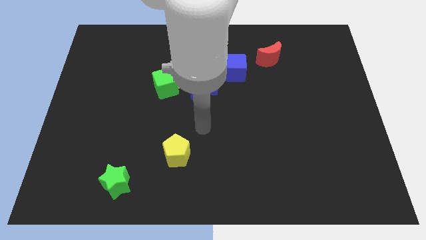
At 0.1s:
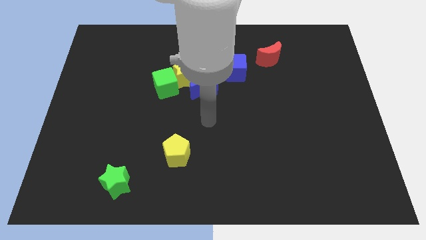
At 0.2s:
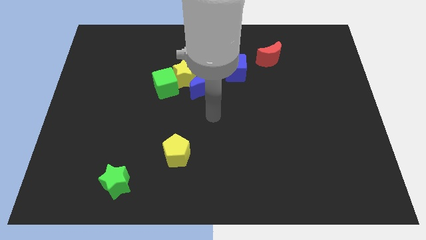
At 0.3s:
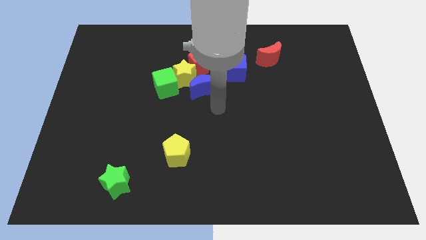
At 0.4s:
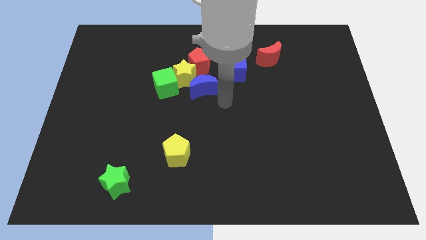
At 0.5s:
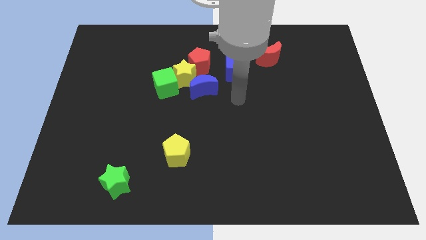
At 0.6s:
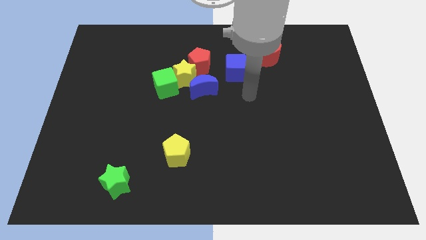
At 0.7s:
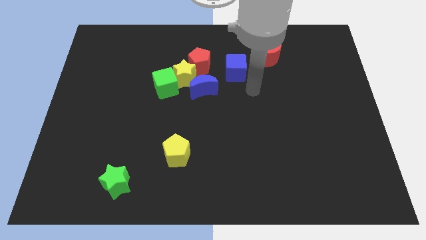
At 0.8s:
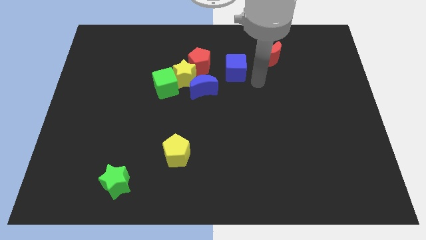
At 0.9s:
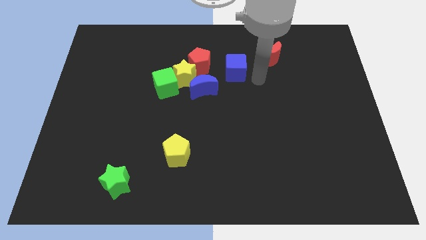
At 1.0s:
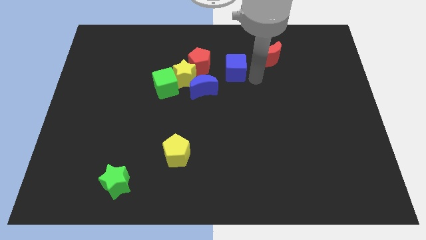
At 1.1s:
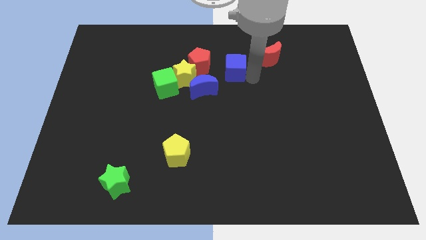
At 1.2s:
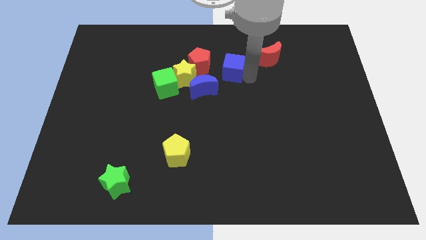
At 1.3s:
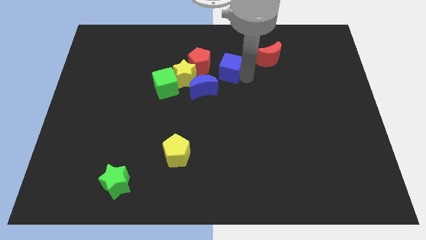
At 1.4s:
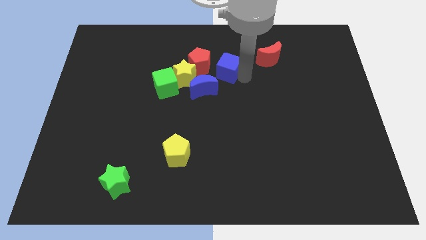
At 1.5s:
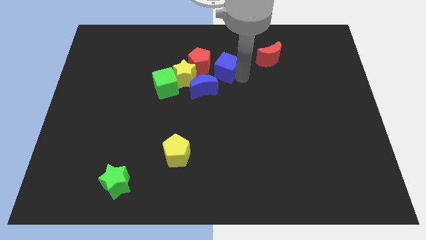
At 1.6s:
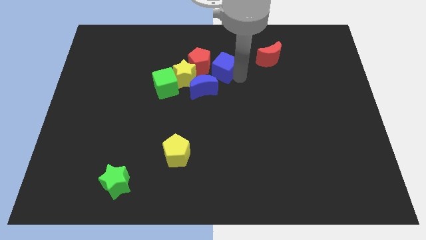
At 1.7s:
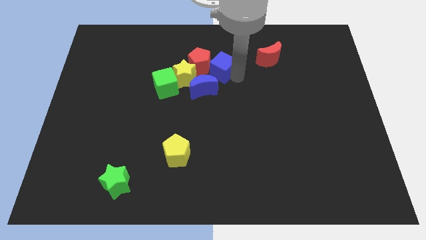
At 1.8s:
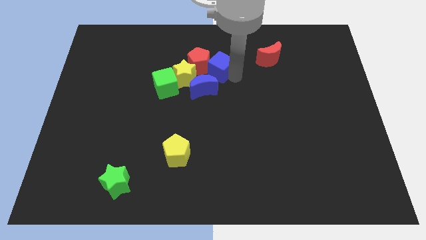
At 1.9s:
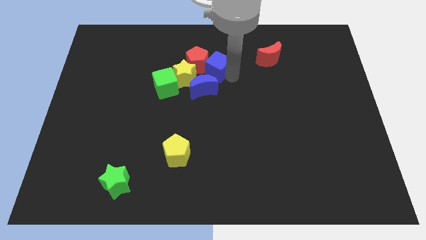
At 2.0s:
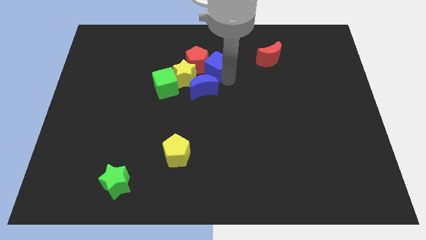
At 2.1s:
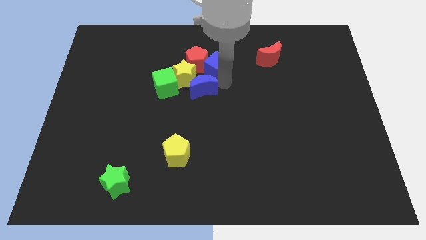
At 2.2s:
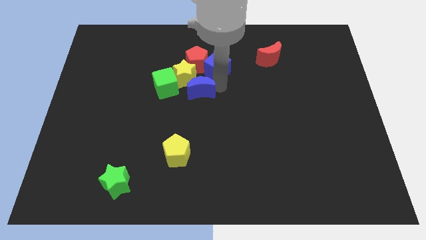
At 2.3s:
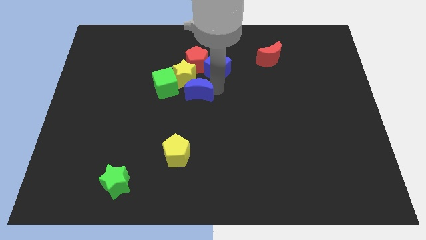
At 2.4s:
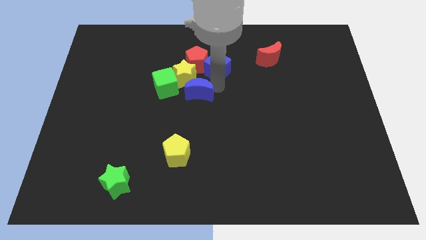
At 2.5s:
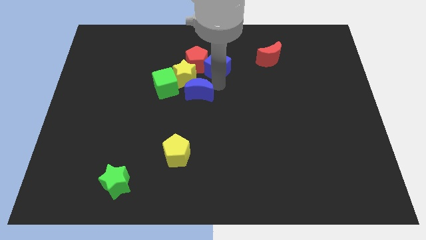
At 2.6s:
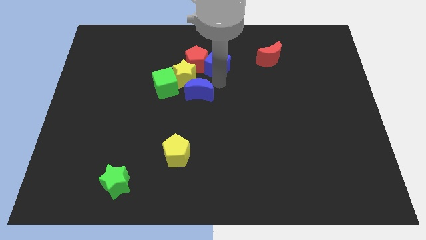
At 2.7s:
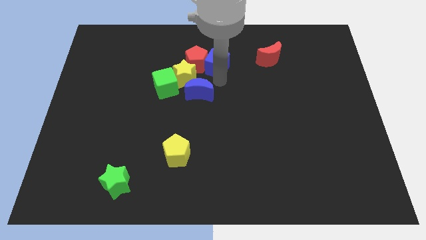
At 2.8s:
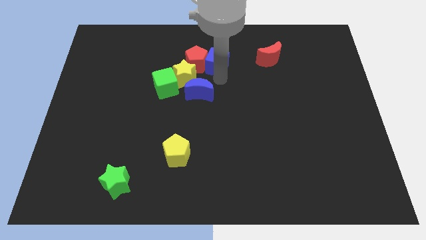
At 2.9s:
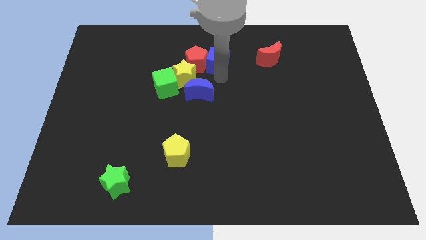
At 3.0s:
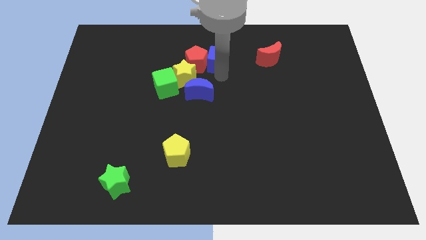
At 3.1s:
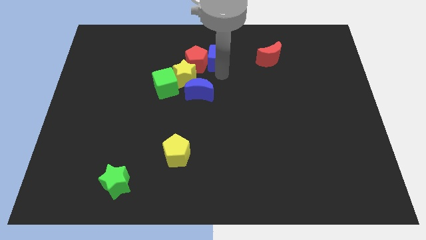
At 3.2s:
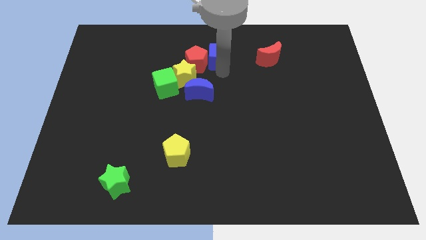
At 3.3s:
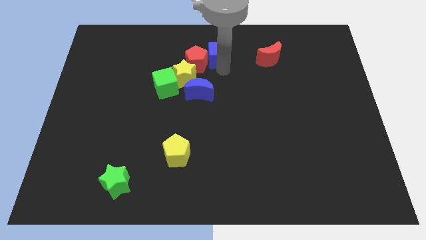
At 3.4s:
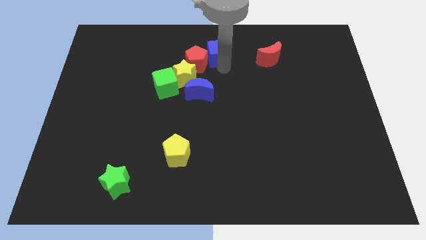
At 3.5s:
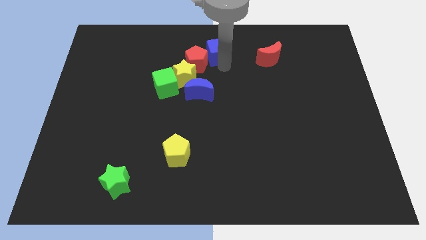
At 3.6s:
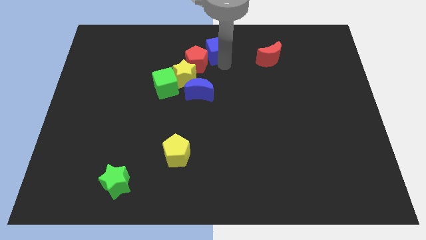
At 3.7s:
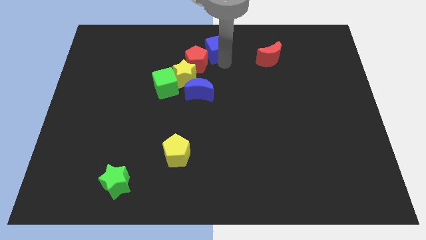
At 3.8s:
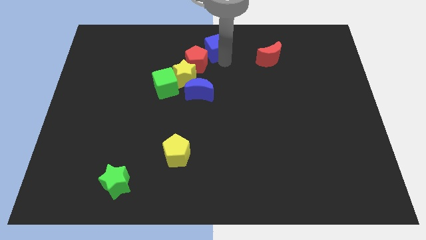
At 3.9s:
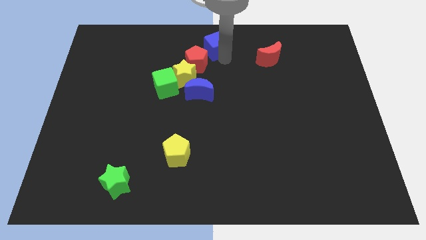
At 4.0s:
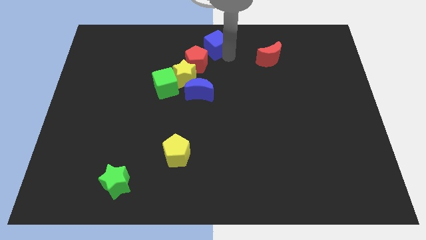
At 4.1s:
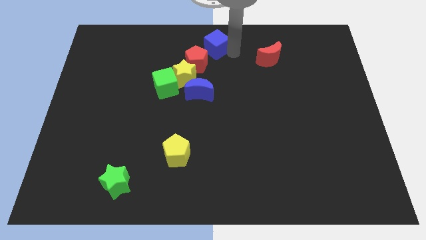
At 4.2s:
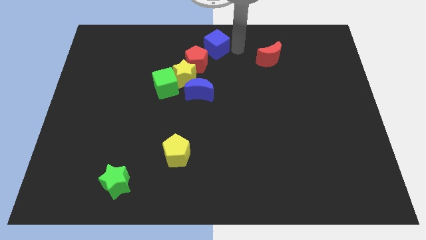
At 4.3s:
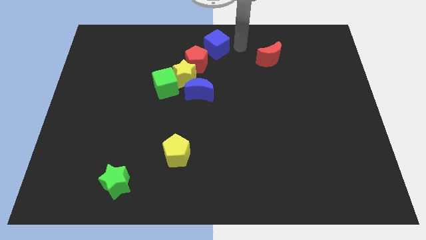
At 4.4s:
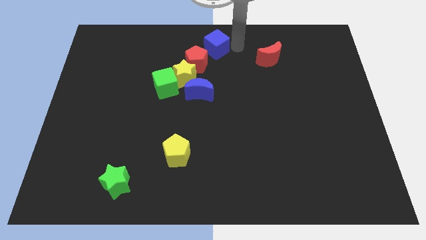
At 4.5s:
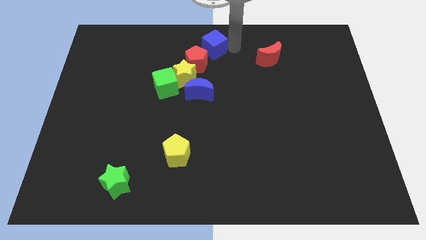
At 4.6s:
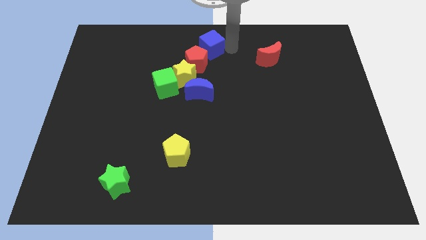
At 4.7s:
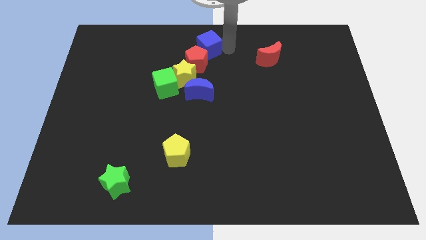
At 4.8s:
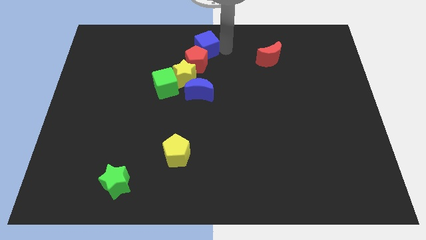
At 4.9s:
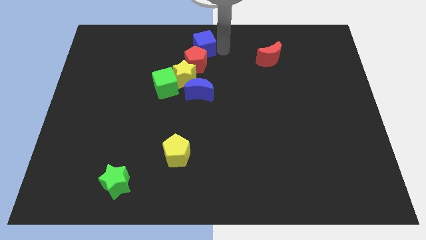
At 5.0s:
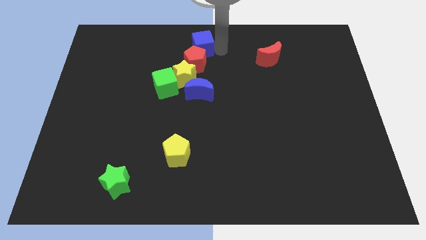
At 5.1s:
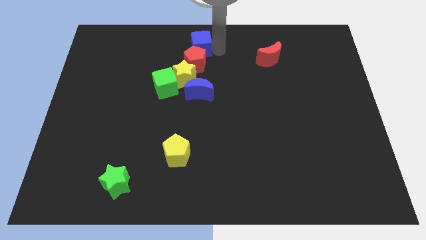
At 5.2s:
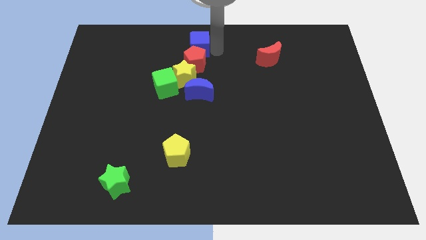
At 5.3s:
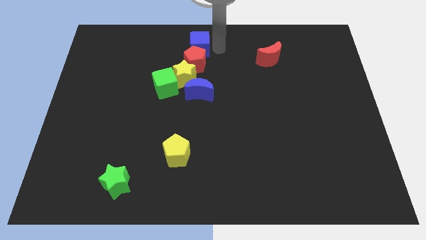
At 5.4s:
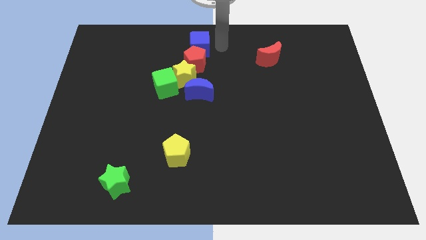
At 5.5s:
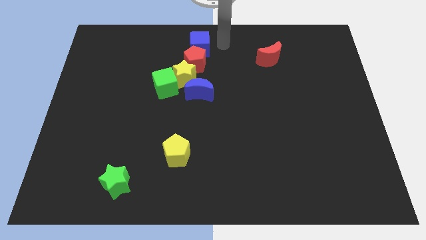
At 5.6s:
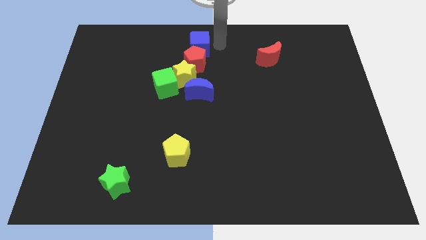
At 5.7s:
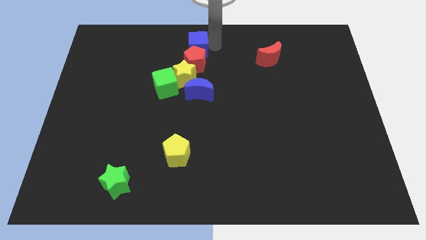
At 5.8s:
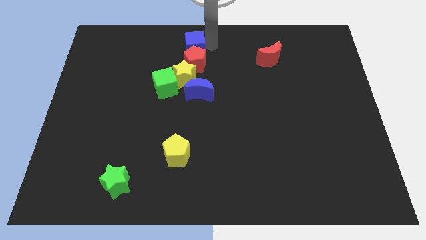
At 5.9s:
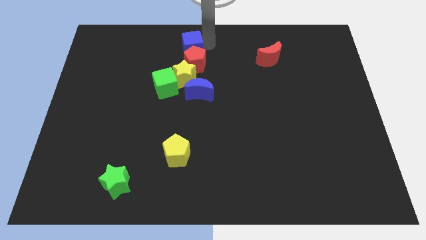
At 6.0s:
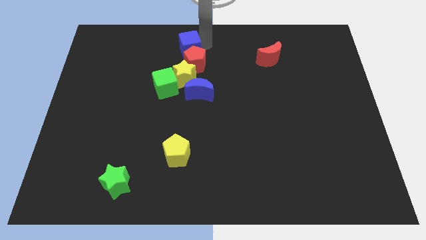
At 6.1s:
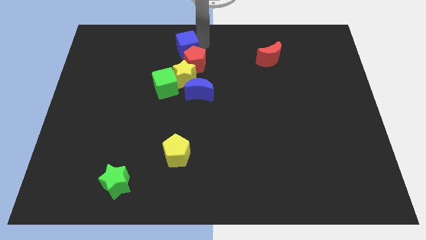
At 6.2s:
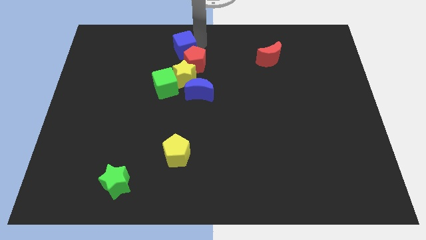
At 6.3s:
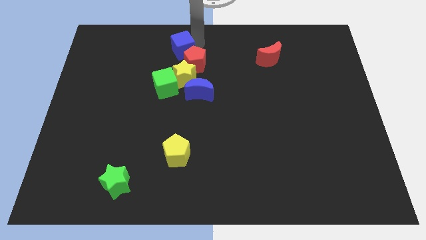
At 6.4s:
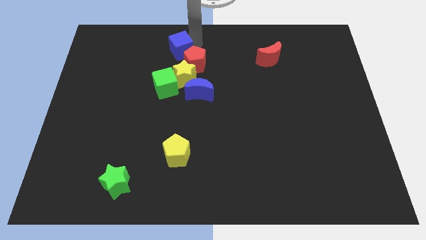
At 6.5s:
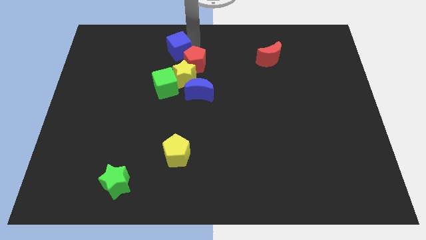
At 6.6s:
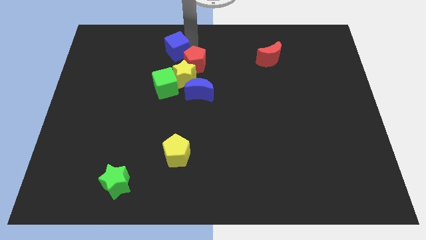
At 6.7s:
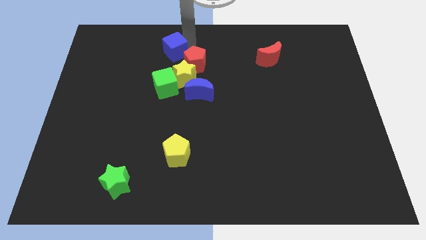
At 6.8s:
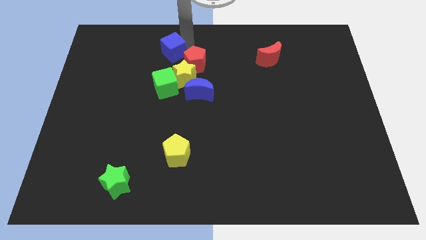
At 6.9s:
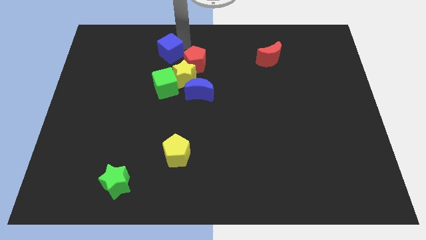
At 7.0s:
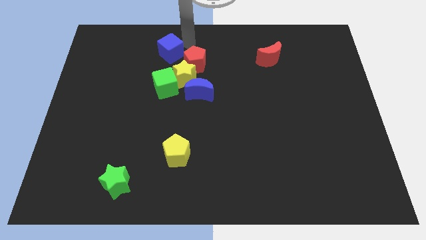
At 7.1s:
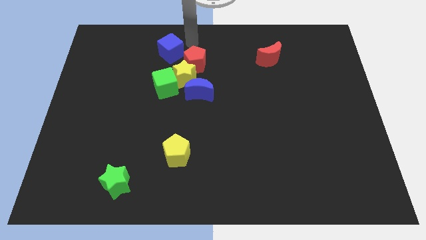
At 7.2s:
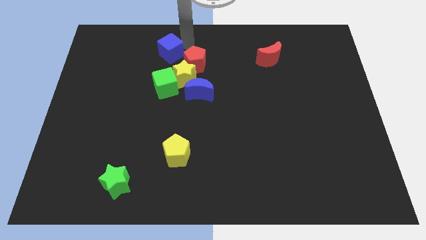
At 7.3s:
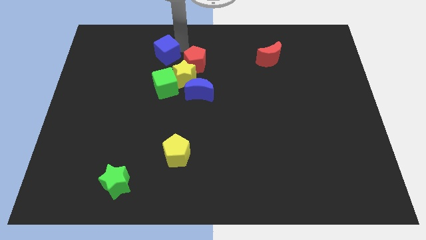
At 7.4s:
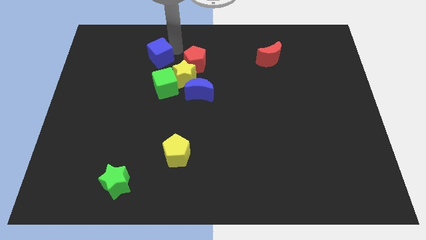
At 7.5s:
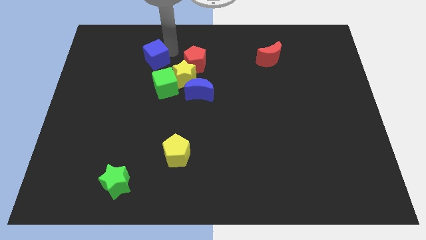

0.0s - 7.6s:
push the blue cube left

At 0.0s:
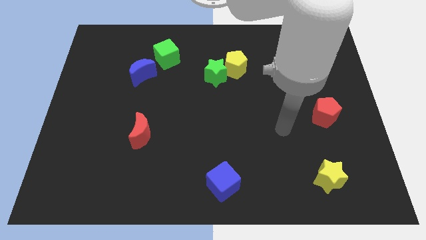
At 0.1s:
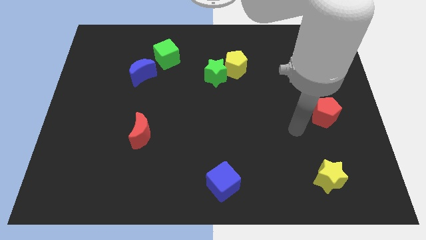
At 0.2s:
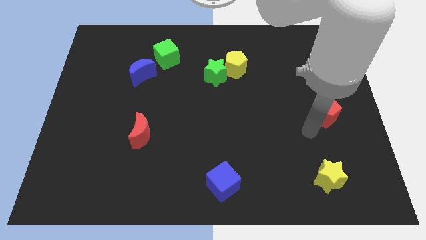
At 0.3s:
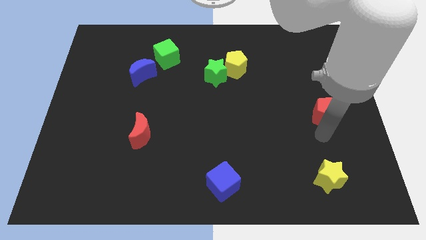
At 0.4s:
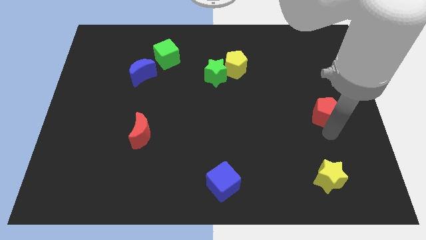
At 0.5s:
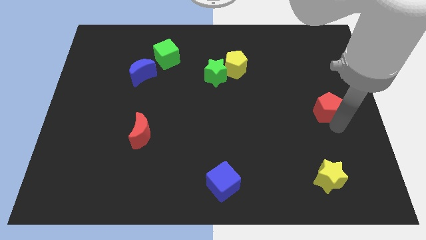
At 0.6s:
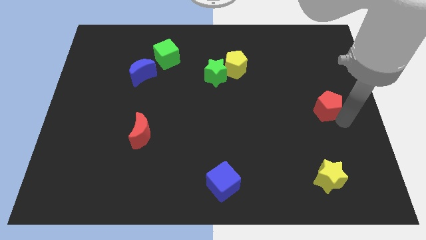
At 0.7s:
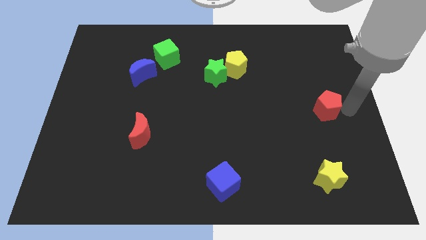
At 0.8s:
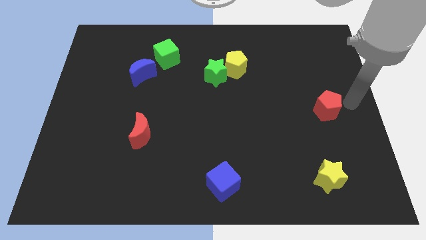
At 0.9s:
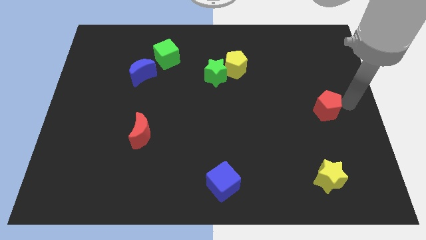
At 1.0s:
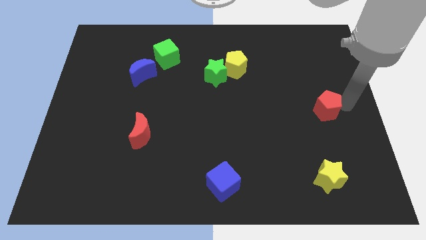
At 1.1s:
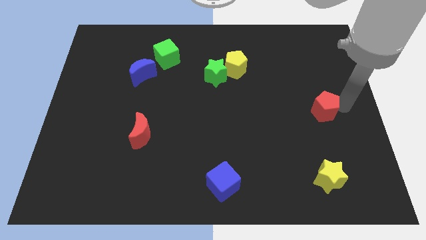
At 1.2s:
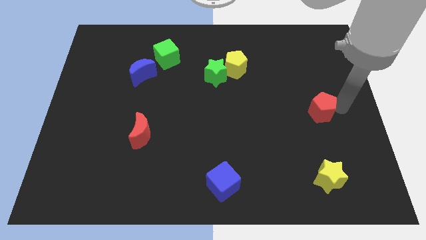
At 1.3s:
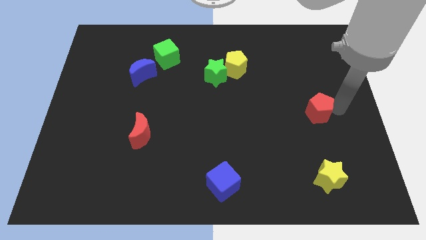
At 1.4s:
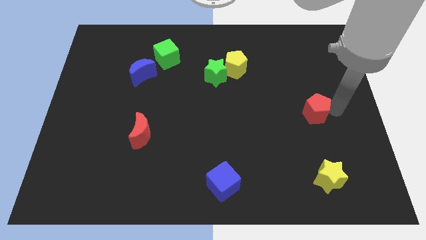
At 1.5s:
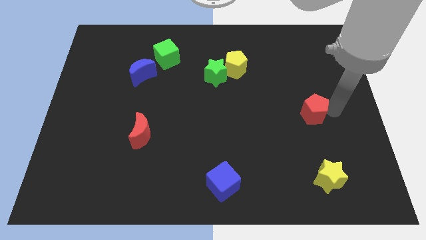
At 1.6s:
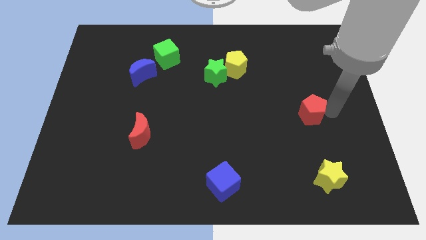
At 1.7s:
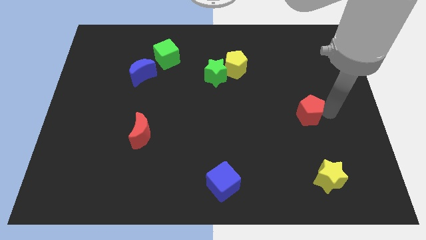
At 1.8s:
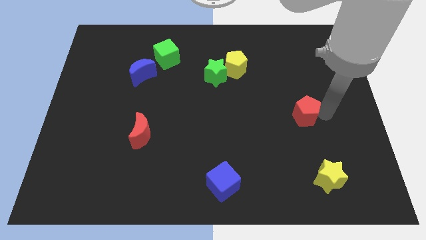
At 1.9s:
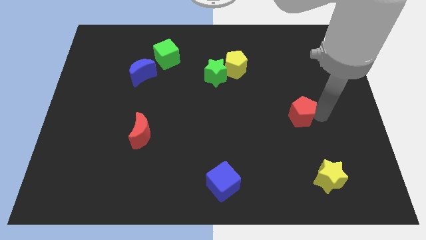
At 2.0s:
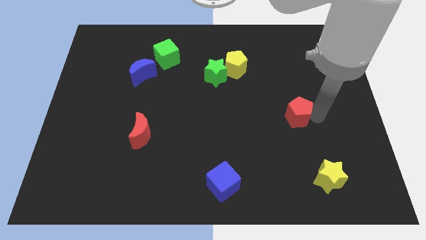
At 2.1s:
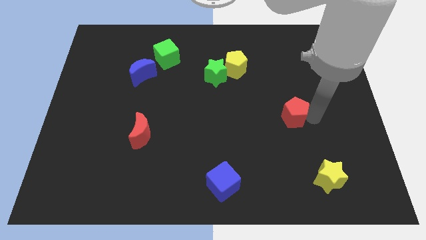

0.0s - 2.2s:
slide the red pentagon slightly to the left
